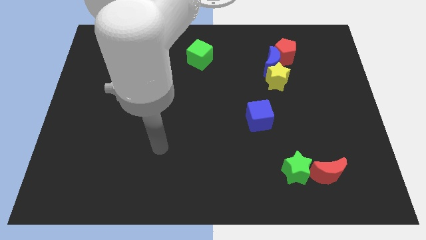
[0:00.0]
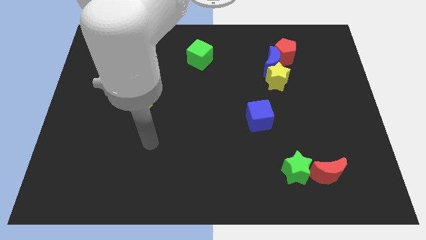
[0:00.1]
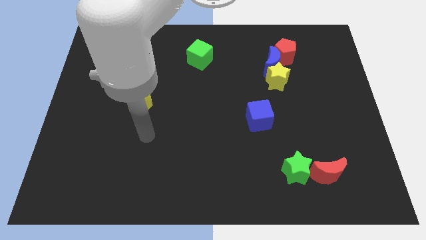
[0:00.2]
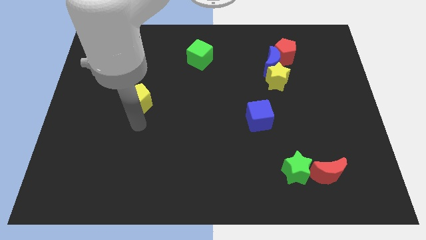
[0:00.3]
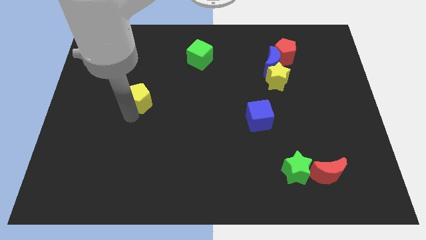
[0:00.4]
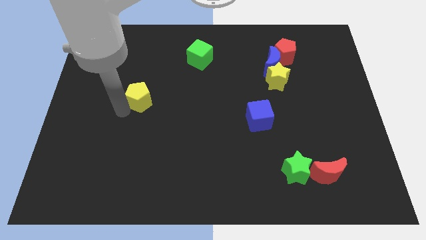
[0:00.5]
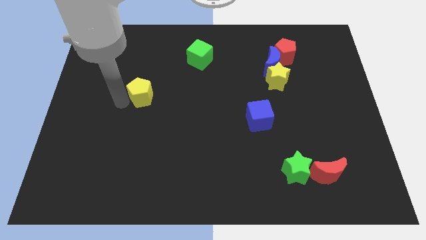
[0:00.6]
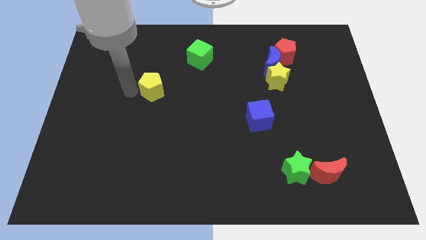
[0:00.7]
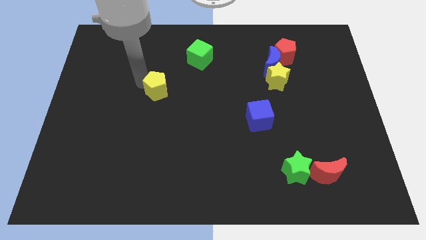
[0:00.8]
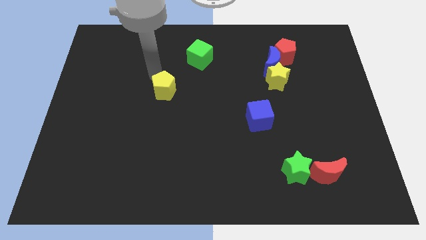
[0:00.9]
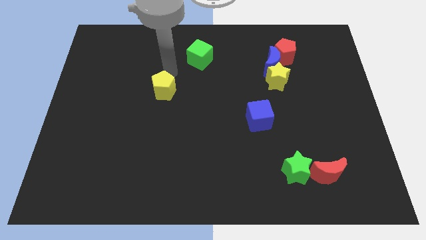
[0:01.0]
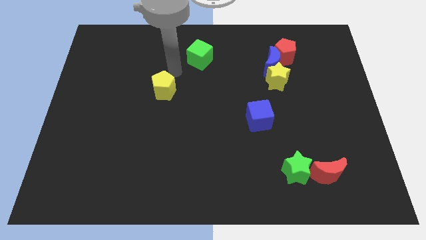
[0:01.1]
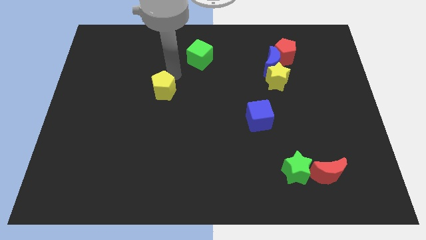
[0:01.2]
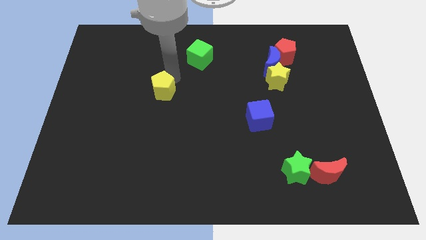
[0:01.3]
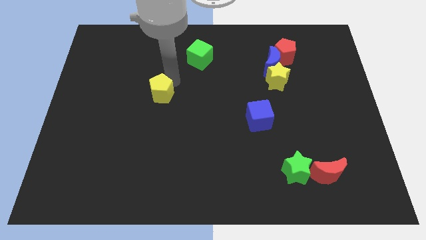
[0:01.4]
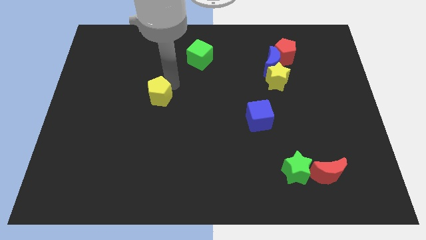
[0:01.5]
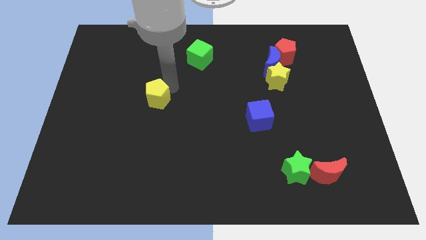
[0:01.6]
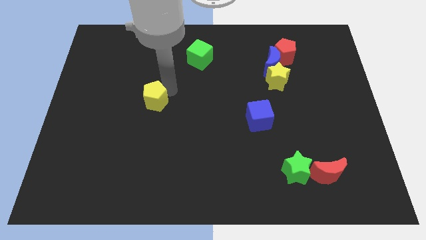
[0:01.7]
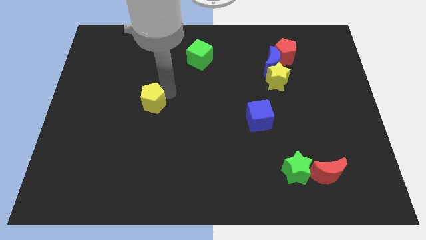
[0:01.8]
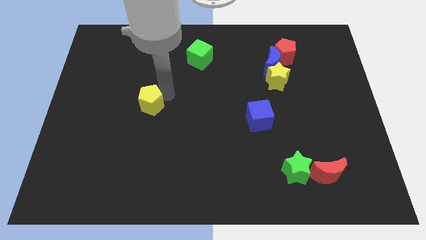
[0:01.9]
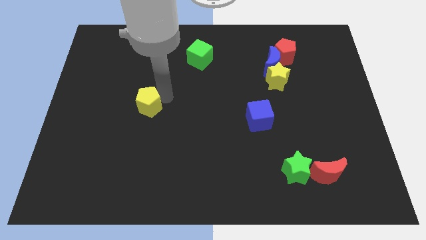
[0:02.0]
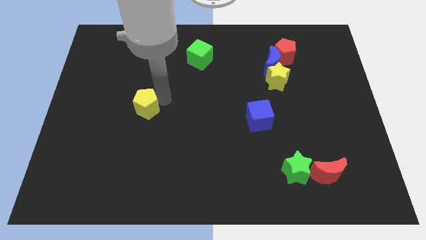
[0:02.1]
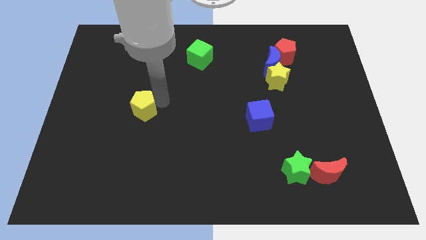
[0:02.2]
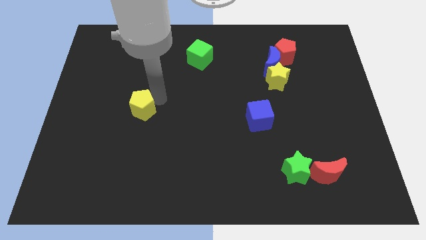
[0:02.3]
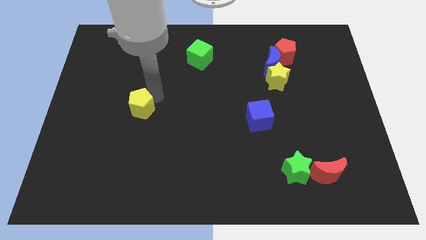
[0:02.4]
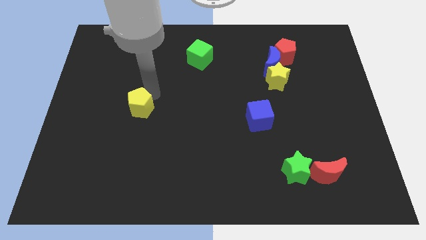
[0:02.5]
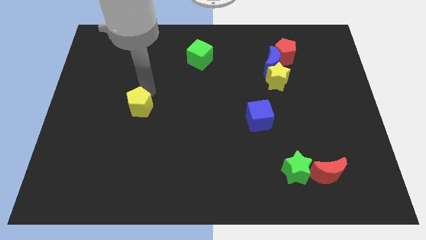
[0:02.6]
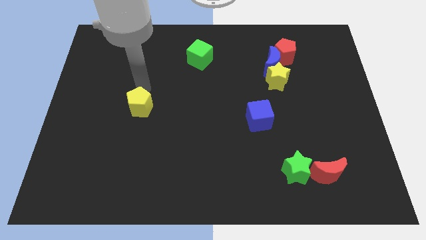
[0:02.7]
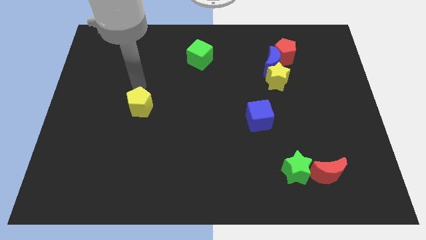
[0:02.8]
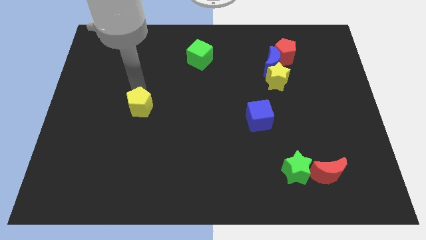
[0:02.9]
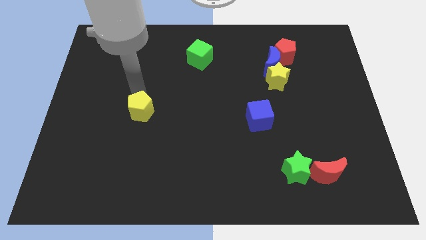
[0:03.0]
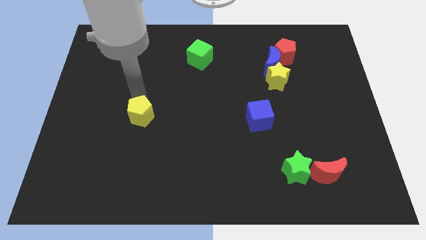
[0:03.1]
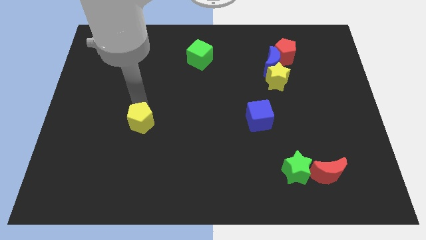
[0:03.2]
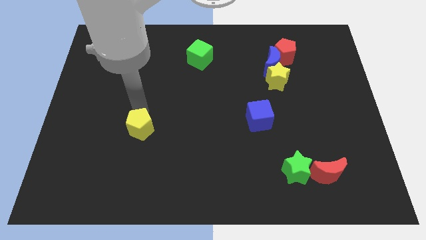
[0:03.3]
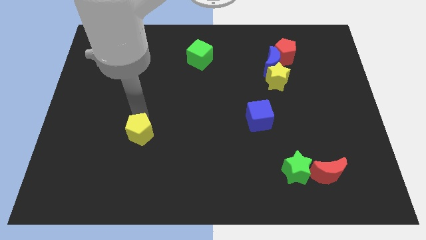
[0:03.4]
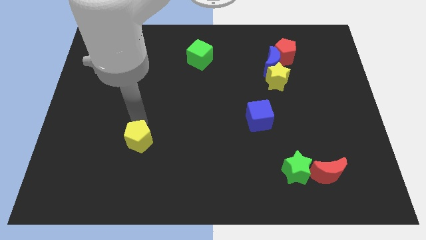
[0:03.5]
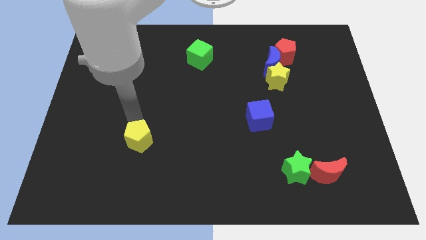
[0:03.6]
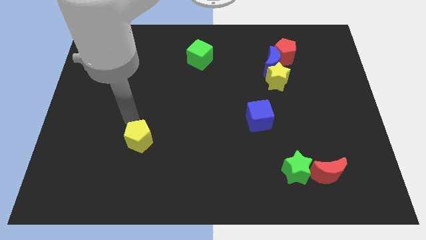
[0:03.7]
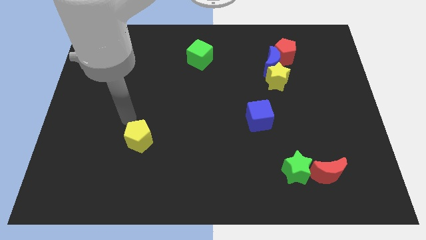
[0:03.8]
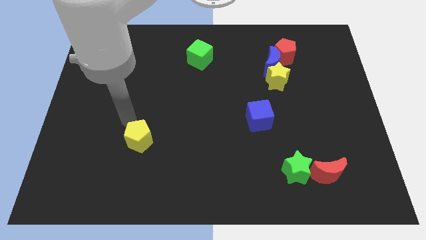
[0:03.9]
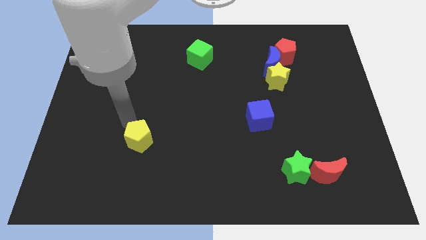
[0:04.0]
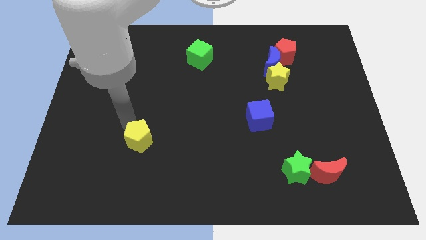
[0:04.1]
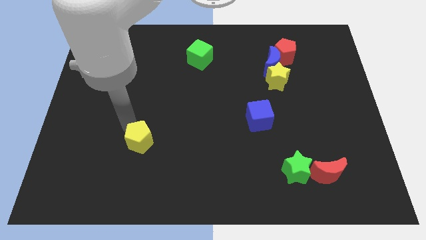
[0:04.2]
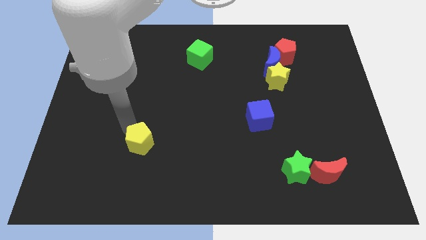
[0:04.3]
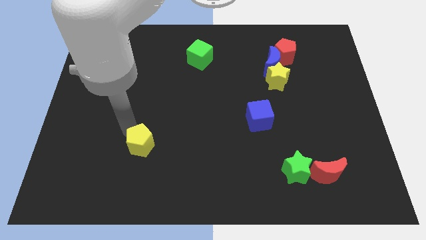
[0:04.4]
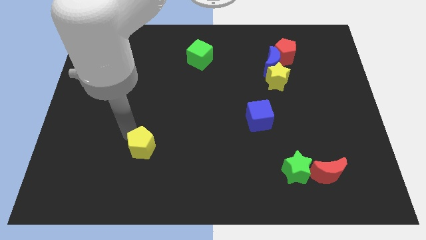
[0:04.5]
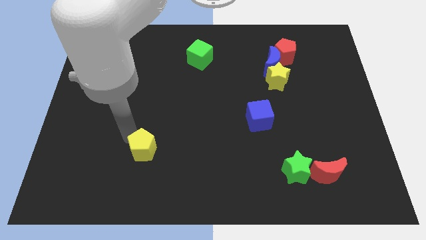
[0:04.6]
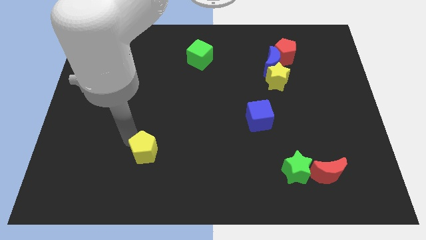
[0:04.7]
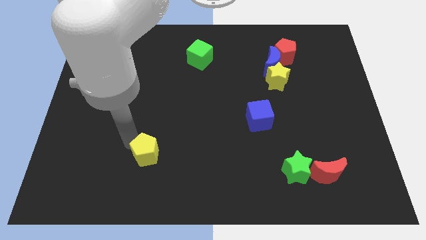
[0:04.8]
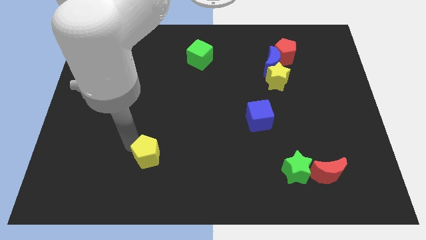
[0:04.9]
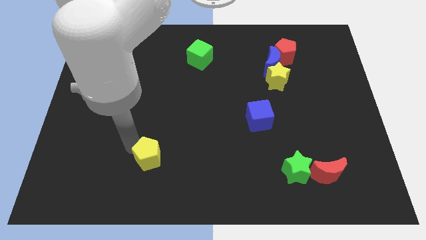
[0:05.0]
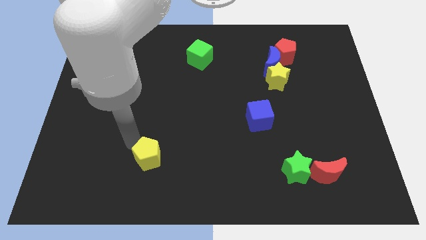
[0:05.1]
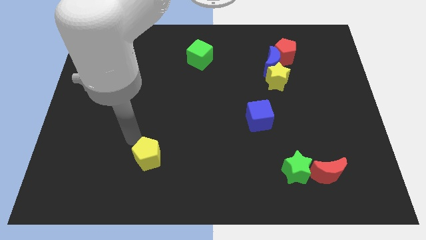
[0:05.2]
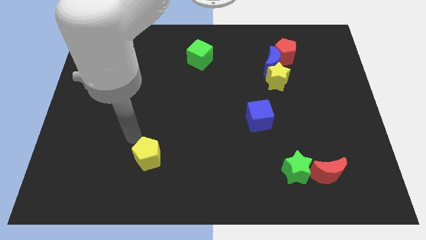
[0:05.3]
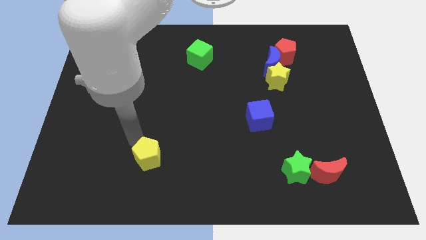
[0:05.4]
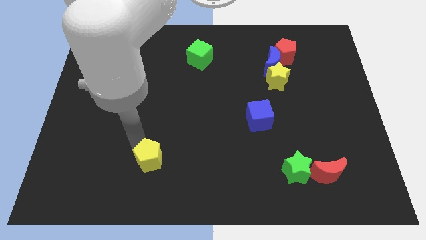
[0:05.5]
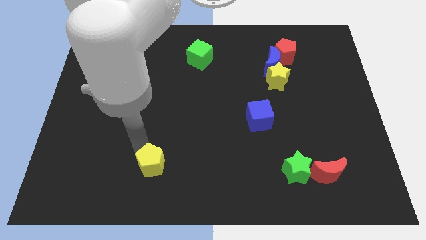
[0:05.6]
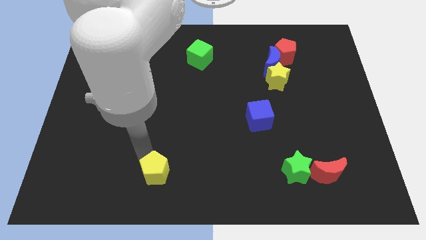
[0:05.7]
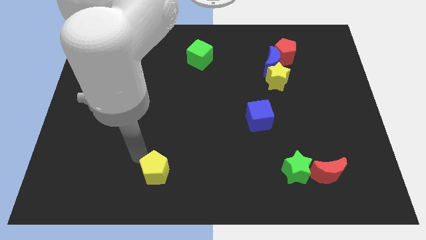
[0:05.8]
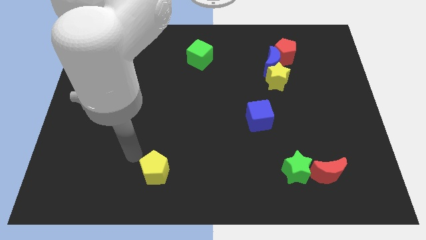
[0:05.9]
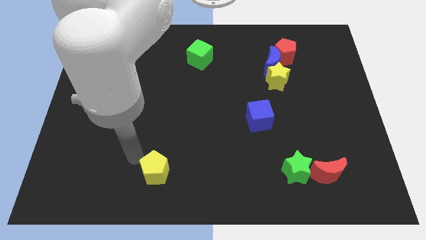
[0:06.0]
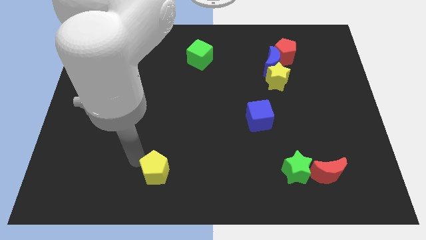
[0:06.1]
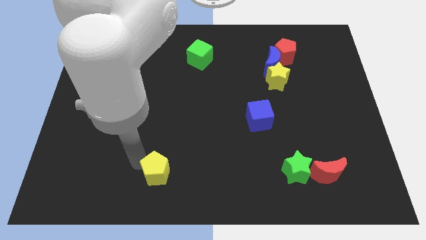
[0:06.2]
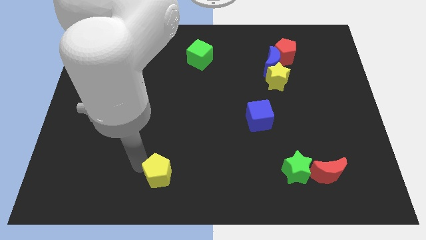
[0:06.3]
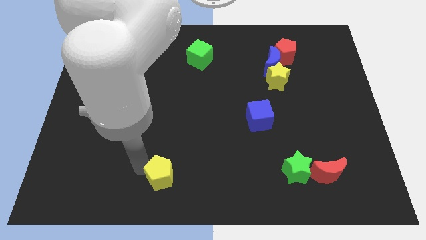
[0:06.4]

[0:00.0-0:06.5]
move the yellow pentagon to the bottom side
